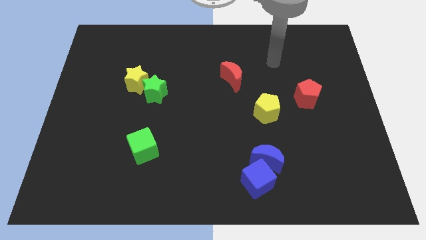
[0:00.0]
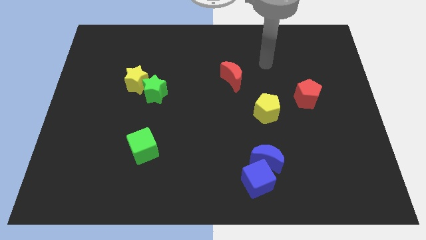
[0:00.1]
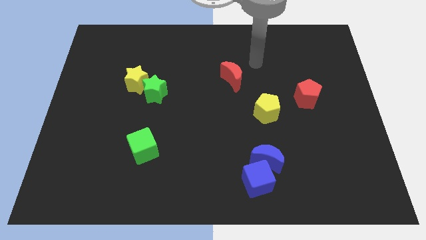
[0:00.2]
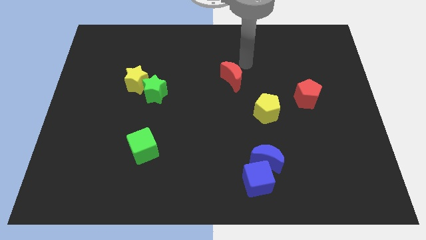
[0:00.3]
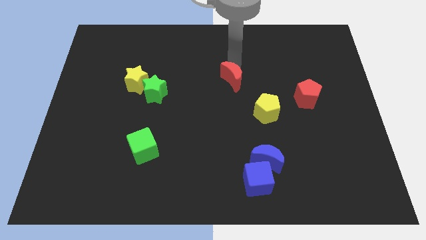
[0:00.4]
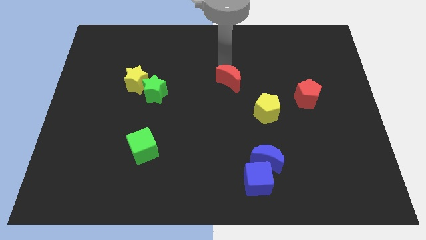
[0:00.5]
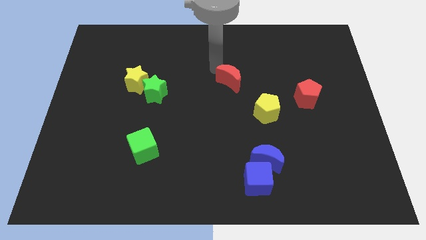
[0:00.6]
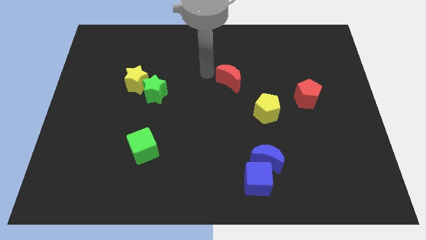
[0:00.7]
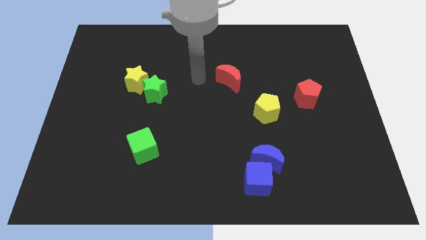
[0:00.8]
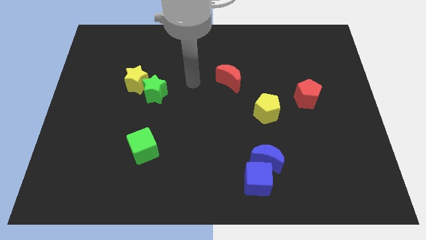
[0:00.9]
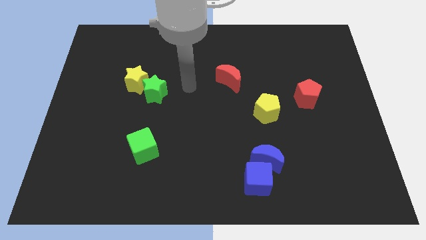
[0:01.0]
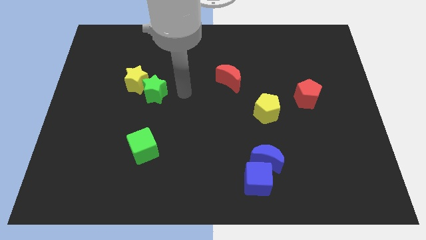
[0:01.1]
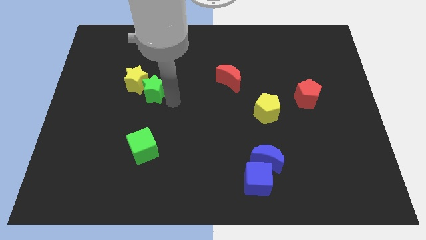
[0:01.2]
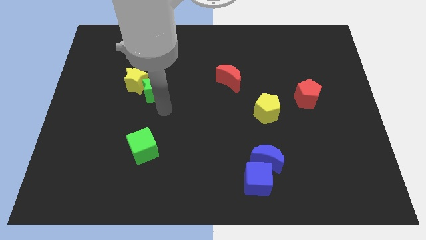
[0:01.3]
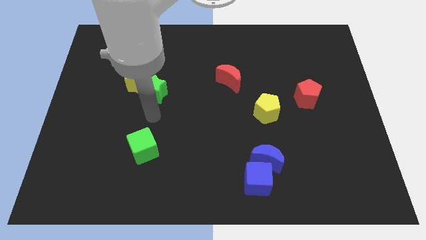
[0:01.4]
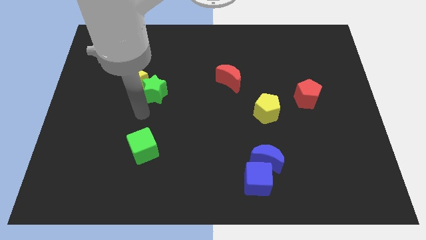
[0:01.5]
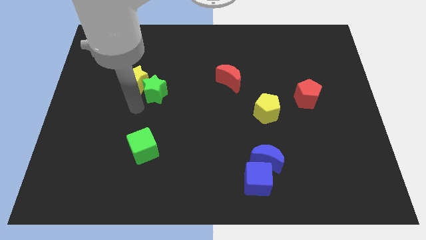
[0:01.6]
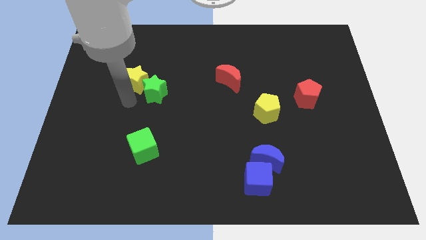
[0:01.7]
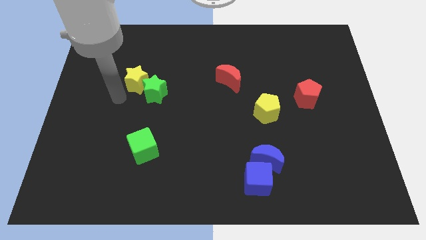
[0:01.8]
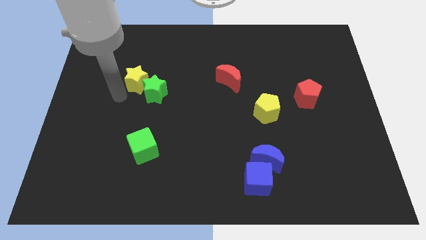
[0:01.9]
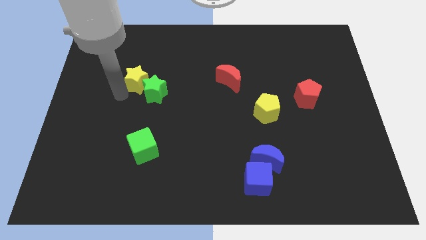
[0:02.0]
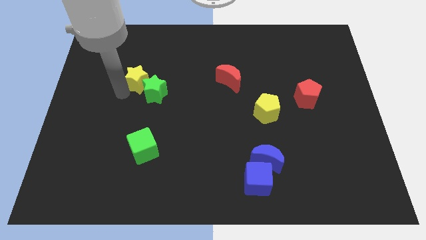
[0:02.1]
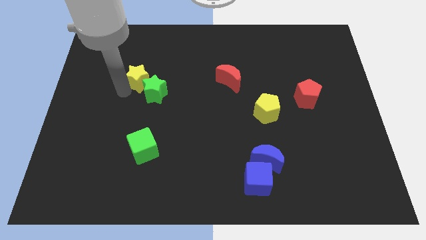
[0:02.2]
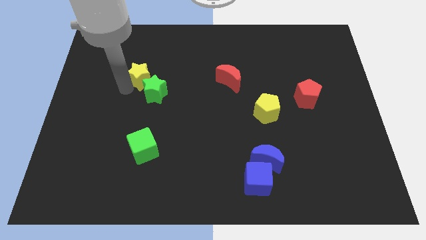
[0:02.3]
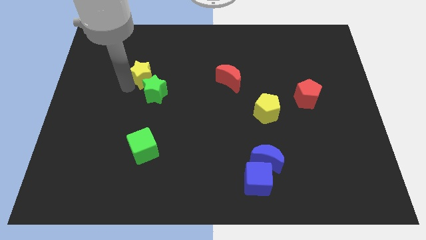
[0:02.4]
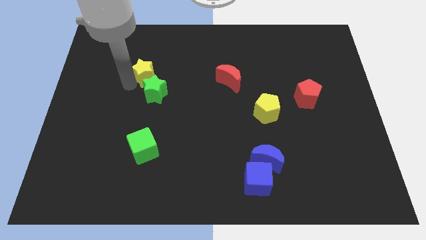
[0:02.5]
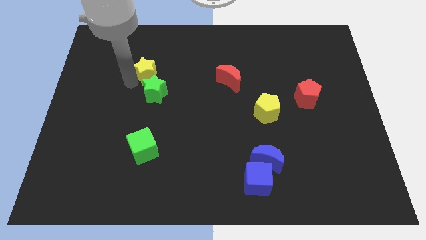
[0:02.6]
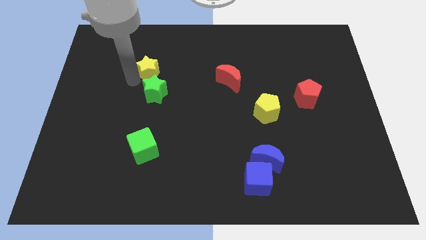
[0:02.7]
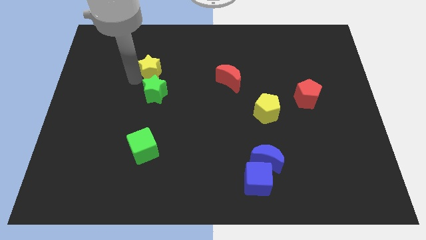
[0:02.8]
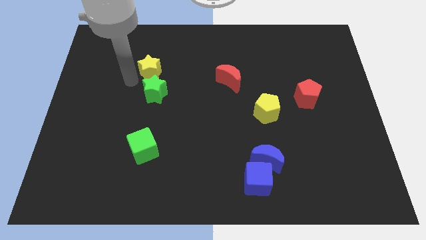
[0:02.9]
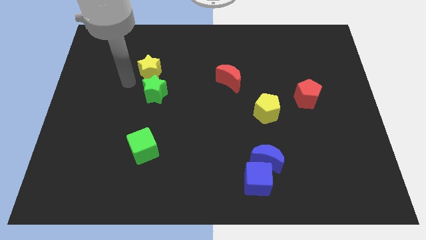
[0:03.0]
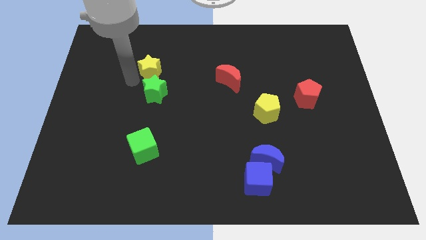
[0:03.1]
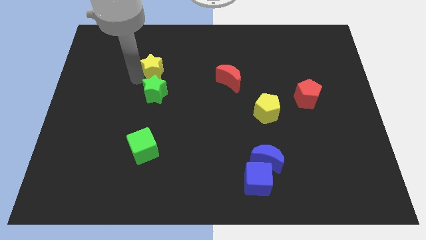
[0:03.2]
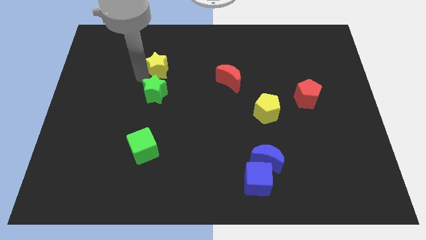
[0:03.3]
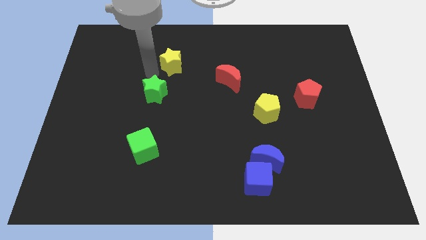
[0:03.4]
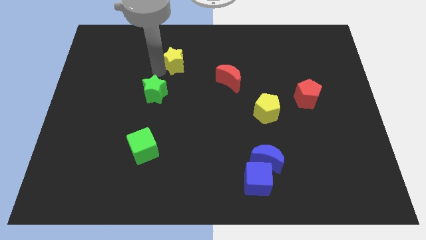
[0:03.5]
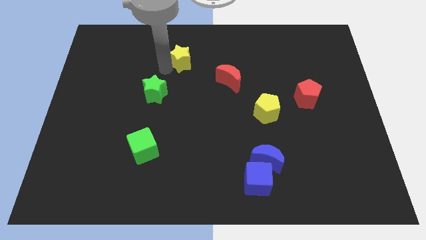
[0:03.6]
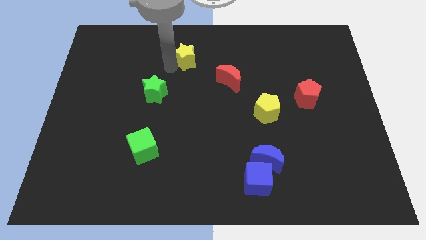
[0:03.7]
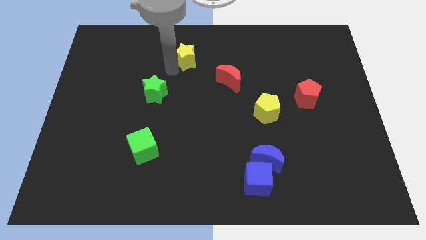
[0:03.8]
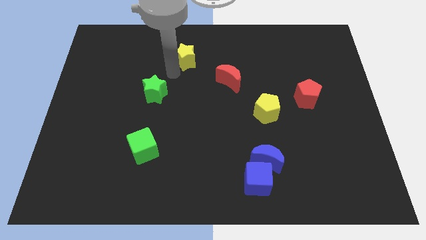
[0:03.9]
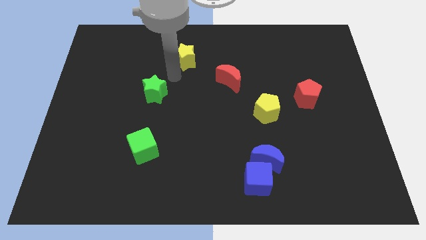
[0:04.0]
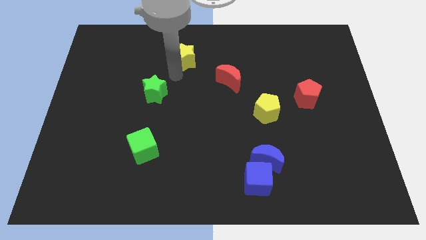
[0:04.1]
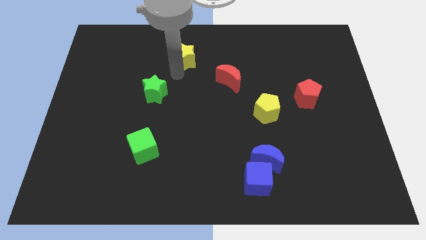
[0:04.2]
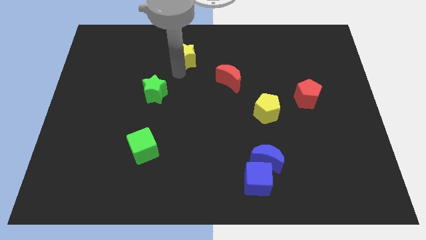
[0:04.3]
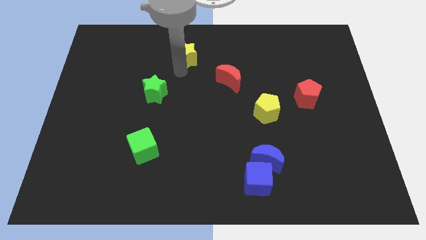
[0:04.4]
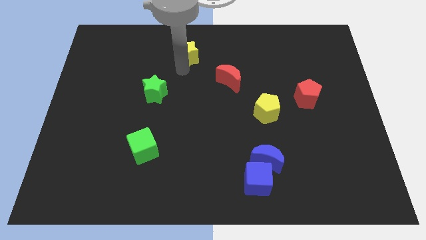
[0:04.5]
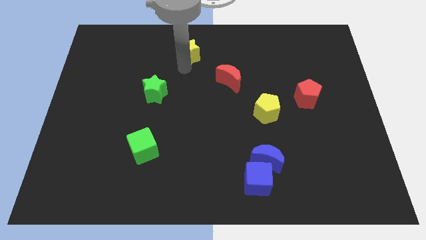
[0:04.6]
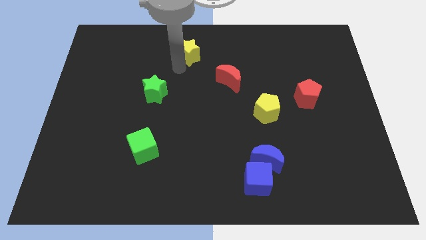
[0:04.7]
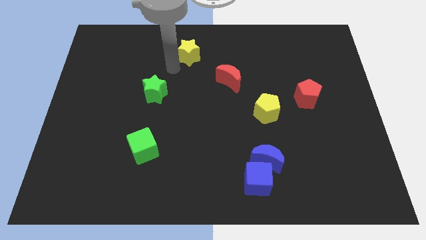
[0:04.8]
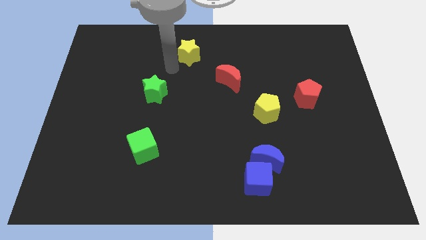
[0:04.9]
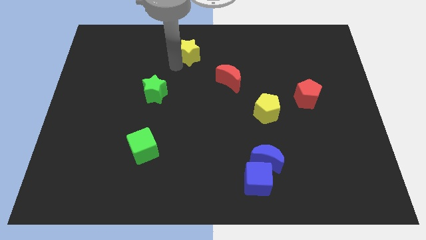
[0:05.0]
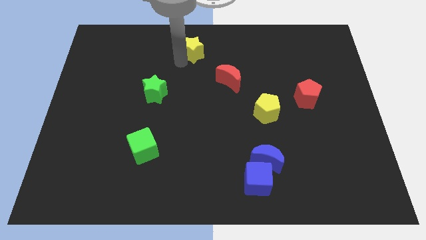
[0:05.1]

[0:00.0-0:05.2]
slide the yellow star to the top

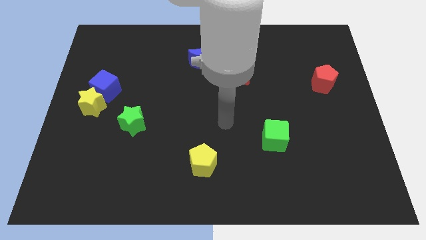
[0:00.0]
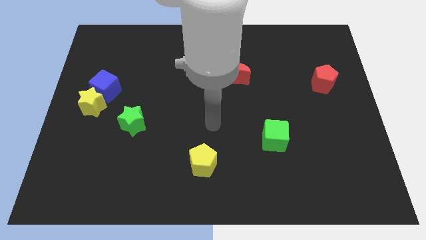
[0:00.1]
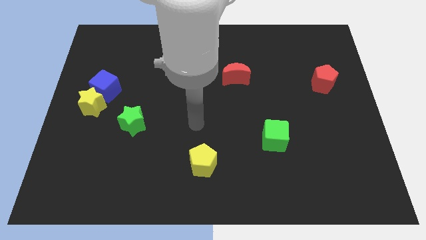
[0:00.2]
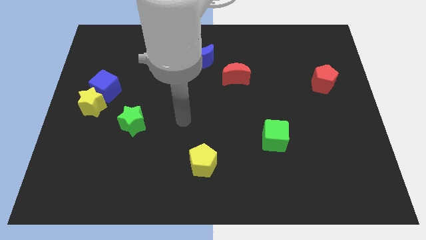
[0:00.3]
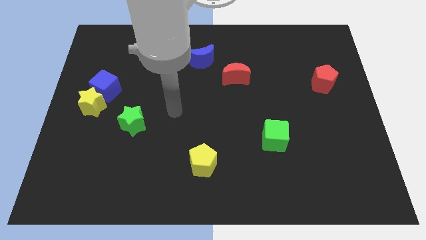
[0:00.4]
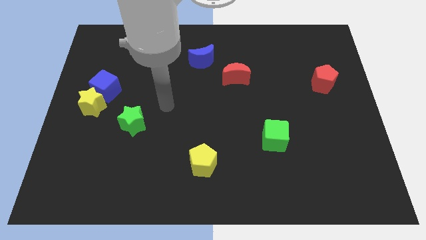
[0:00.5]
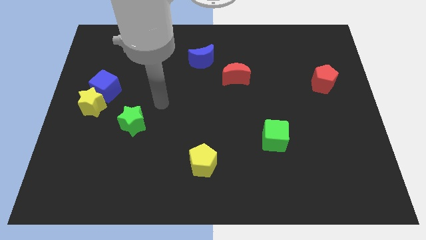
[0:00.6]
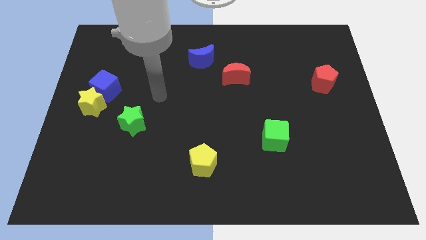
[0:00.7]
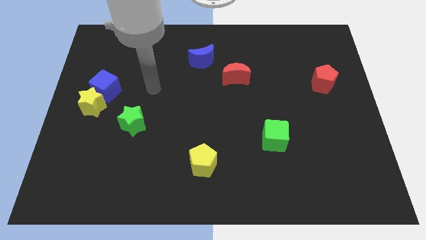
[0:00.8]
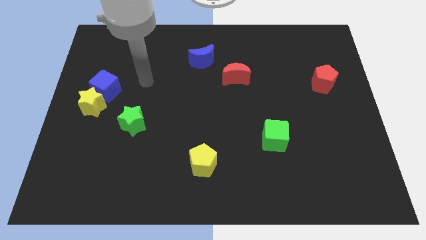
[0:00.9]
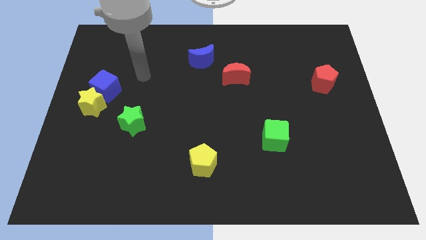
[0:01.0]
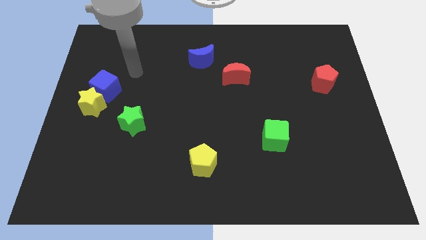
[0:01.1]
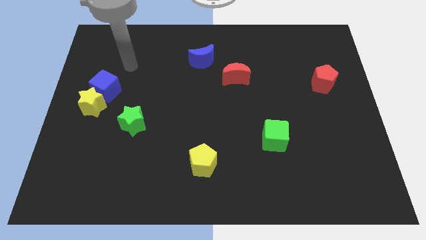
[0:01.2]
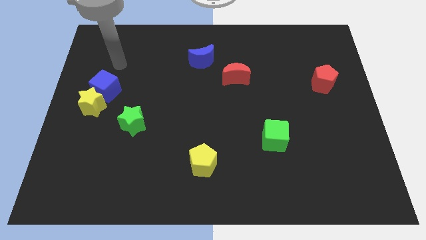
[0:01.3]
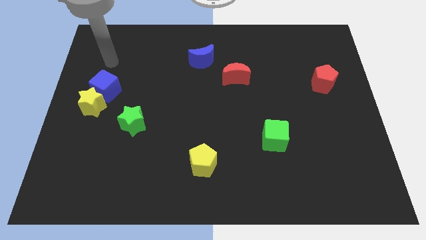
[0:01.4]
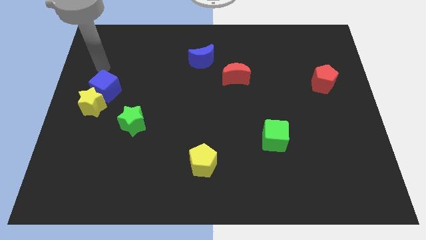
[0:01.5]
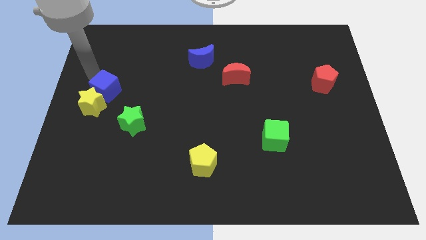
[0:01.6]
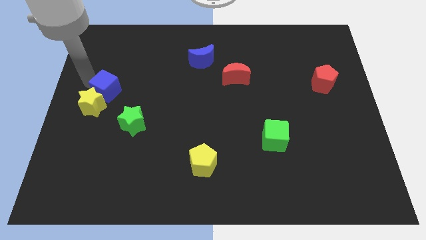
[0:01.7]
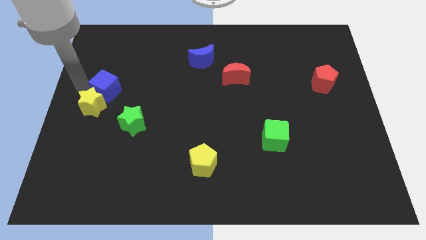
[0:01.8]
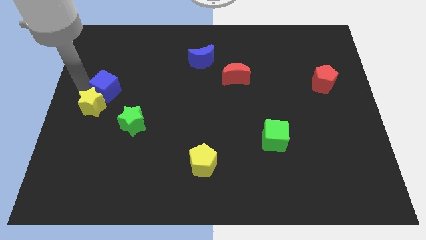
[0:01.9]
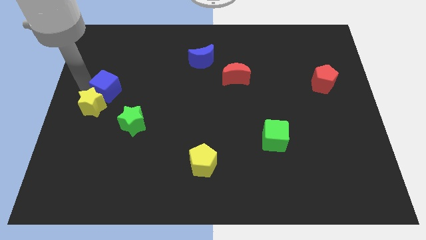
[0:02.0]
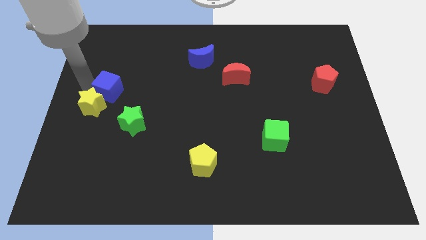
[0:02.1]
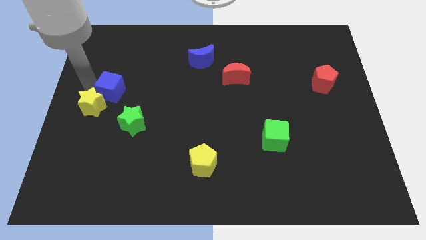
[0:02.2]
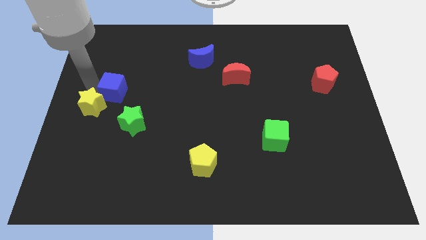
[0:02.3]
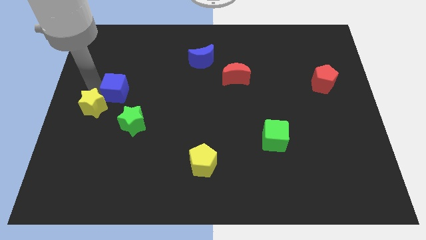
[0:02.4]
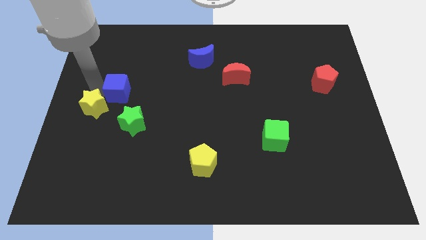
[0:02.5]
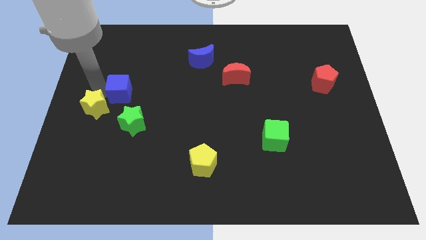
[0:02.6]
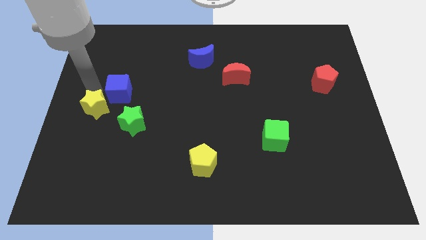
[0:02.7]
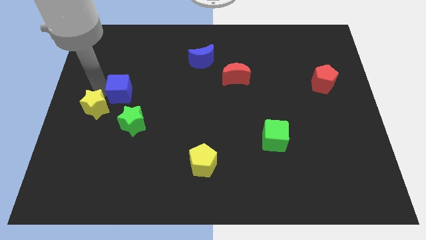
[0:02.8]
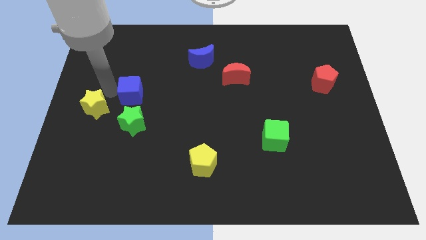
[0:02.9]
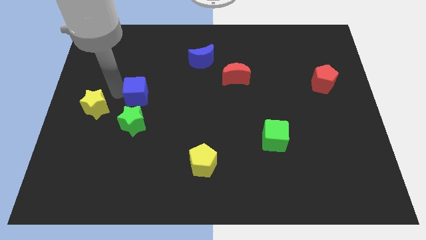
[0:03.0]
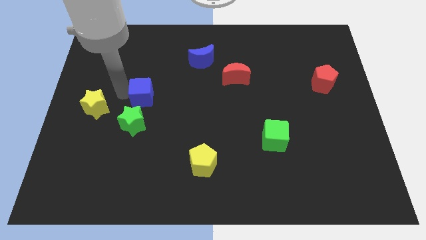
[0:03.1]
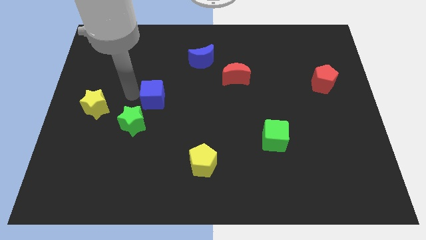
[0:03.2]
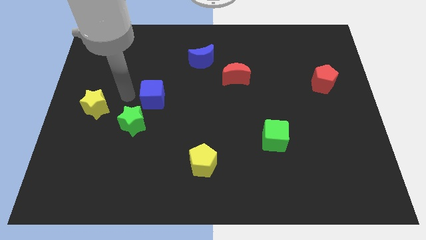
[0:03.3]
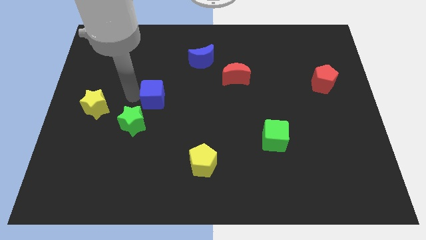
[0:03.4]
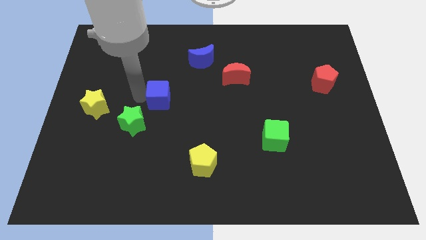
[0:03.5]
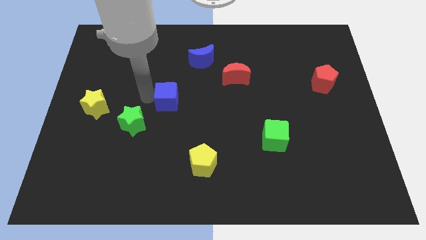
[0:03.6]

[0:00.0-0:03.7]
move the blue cube to the middle of the board
